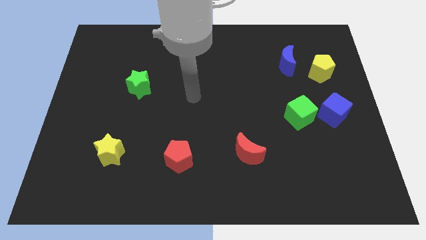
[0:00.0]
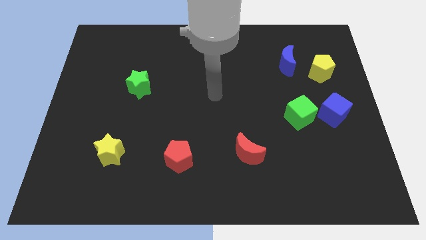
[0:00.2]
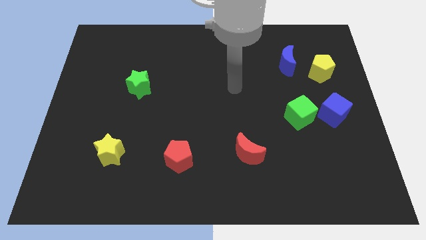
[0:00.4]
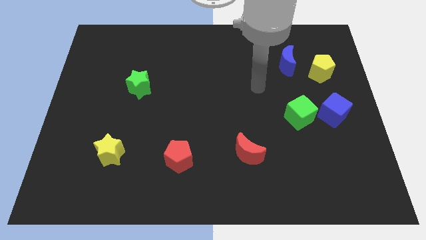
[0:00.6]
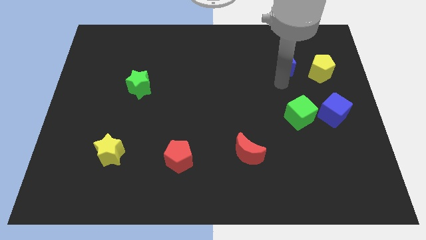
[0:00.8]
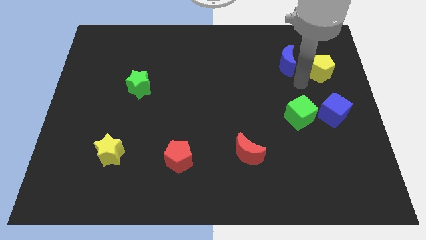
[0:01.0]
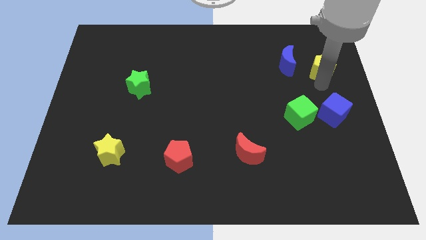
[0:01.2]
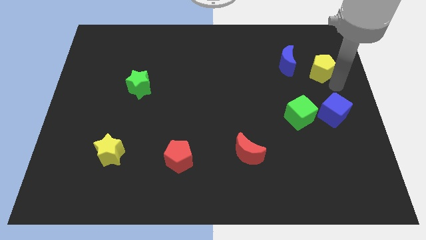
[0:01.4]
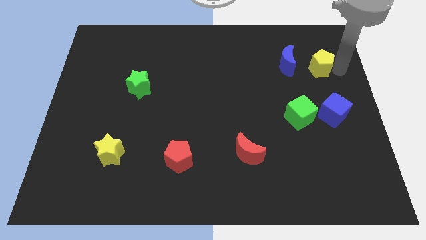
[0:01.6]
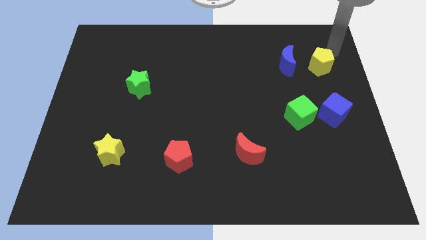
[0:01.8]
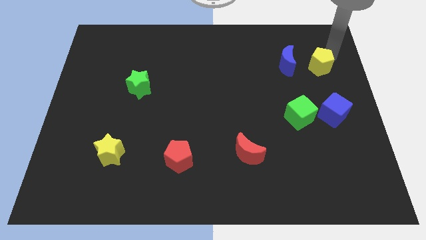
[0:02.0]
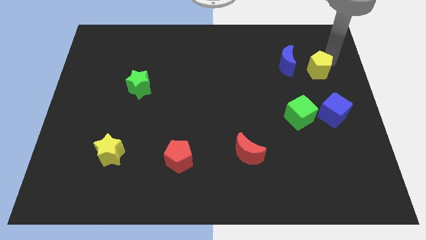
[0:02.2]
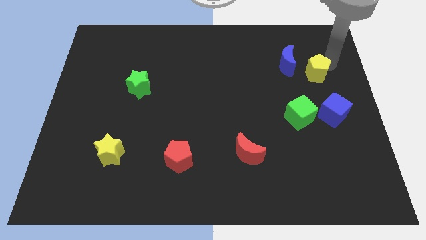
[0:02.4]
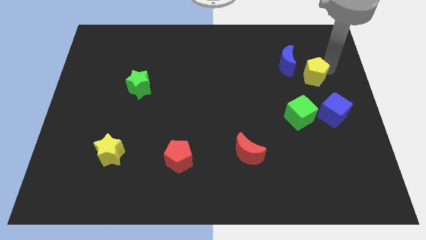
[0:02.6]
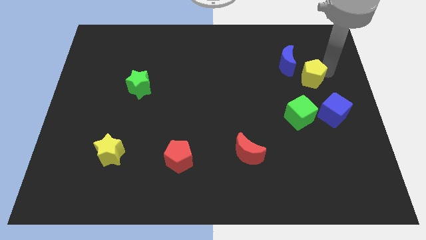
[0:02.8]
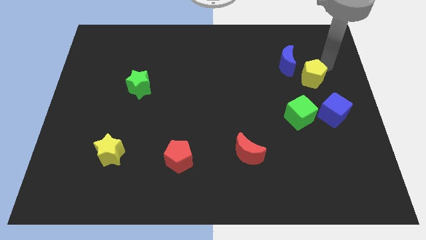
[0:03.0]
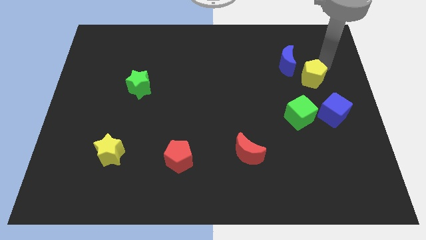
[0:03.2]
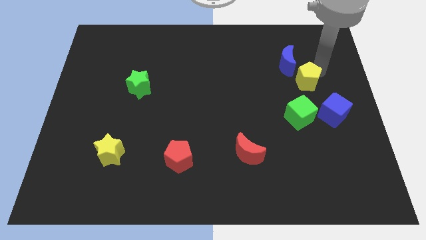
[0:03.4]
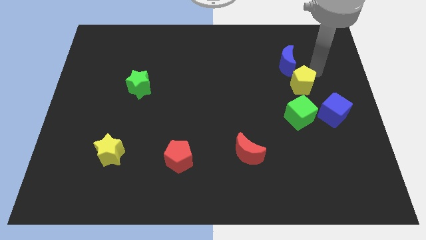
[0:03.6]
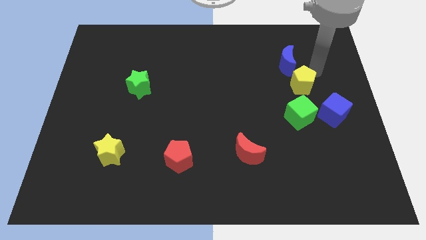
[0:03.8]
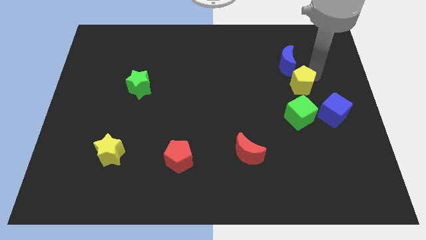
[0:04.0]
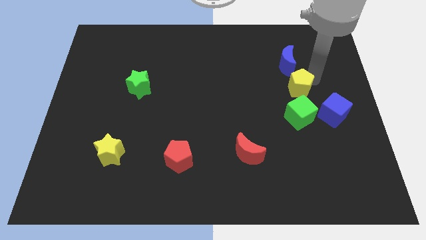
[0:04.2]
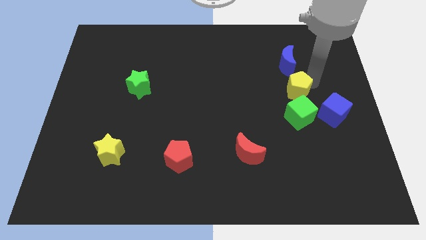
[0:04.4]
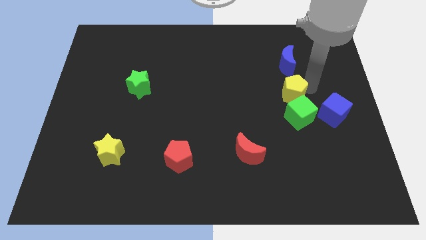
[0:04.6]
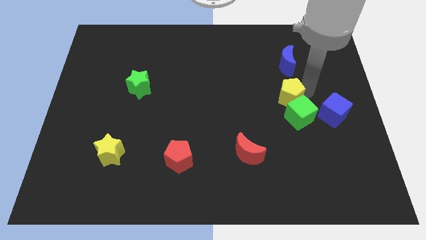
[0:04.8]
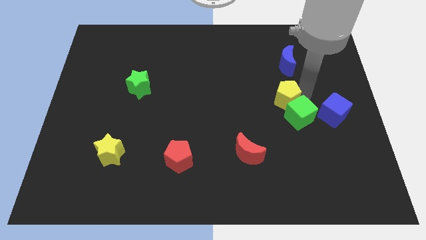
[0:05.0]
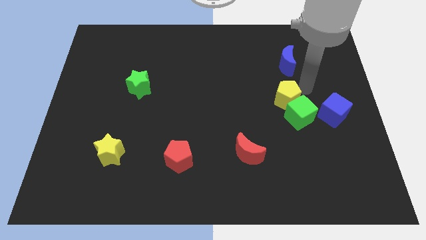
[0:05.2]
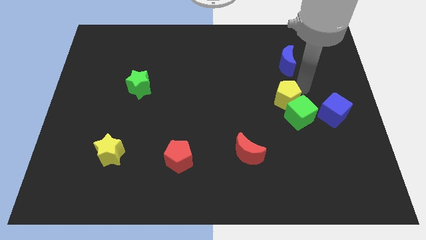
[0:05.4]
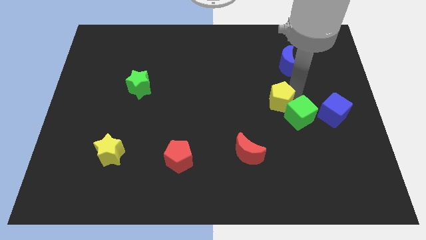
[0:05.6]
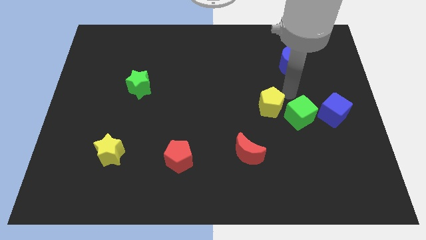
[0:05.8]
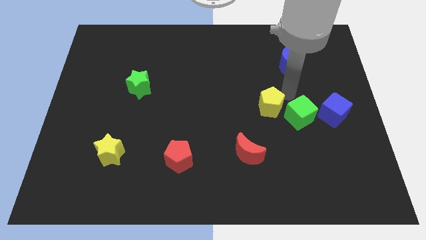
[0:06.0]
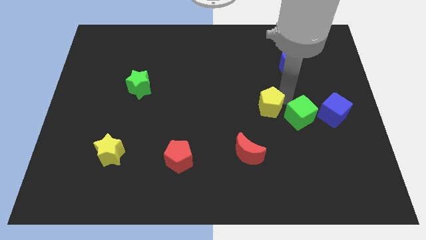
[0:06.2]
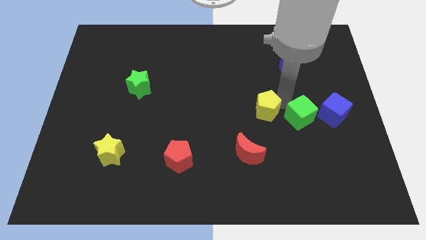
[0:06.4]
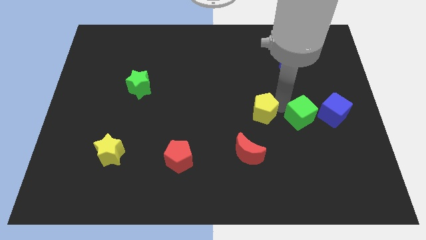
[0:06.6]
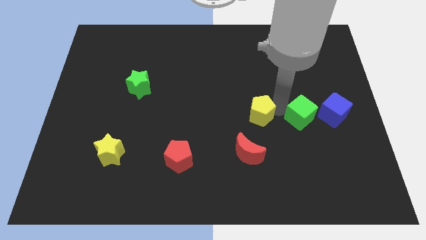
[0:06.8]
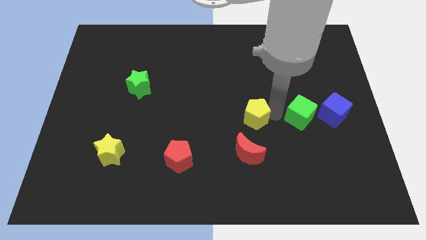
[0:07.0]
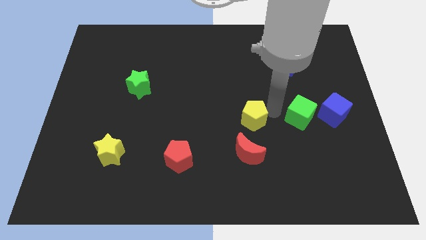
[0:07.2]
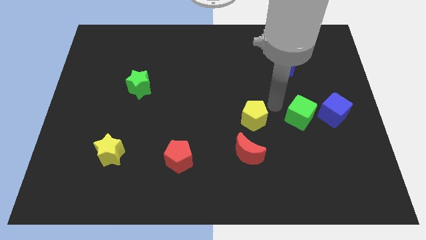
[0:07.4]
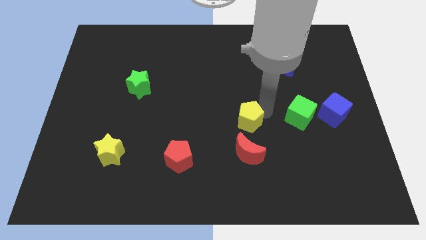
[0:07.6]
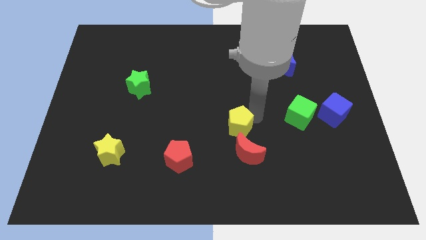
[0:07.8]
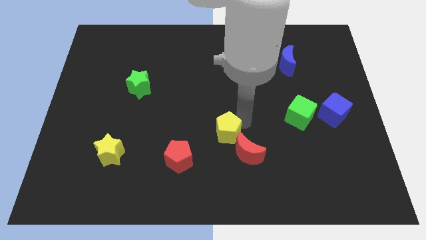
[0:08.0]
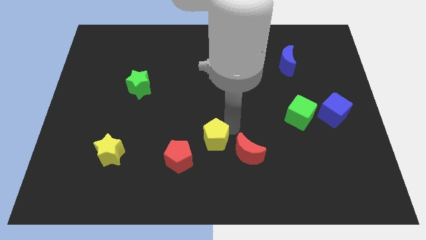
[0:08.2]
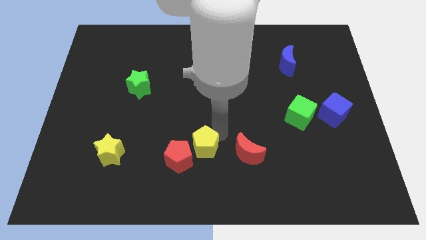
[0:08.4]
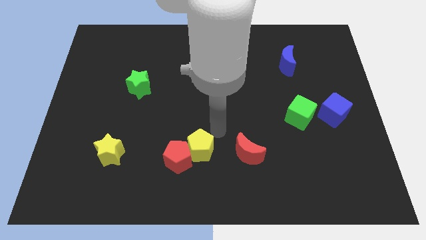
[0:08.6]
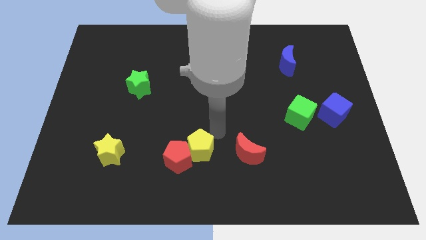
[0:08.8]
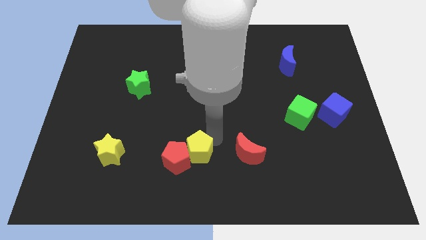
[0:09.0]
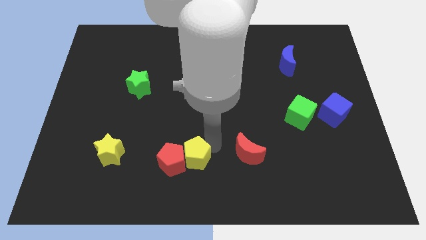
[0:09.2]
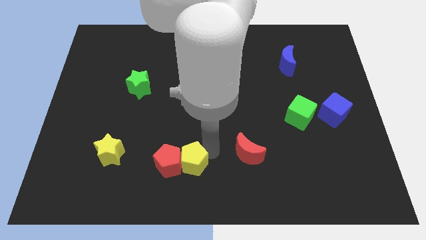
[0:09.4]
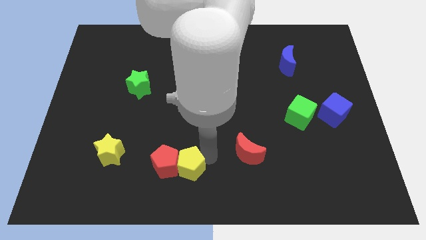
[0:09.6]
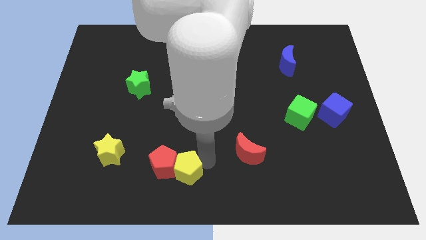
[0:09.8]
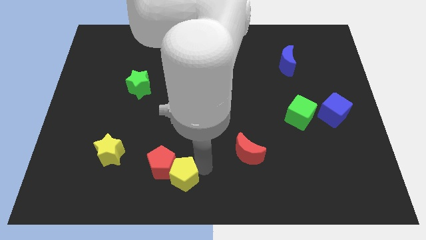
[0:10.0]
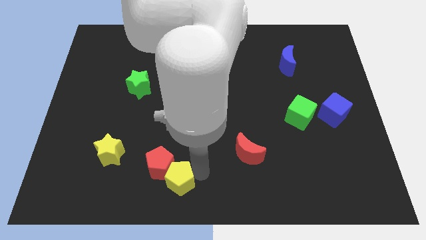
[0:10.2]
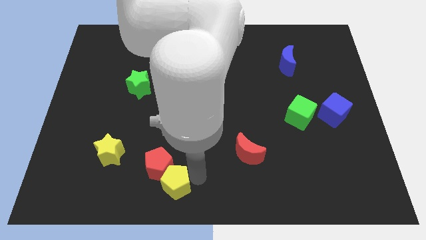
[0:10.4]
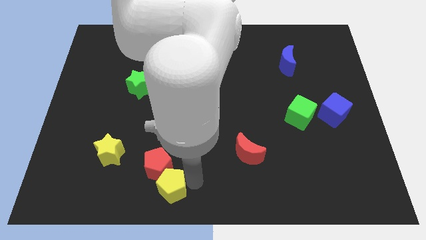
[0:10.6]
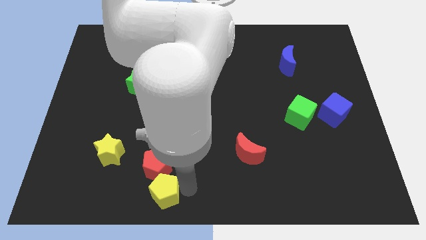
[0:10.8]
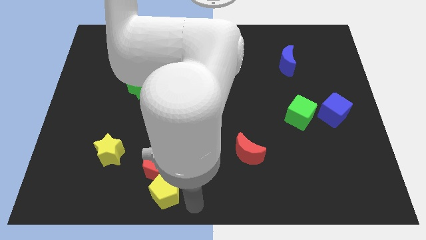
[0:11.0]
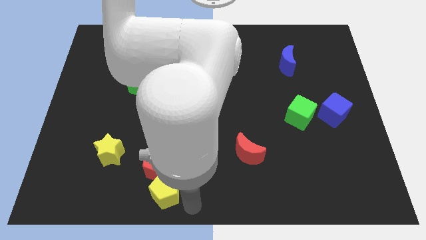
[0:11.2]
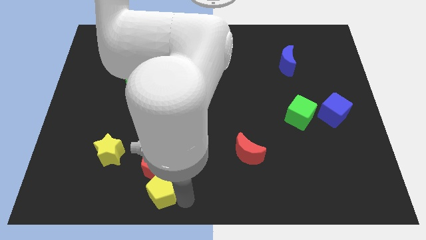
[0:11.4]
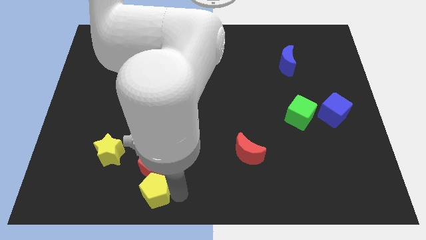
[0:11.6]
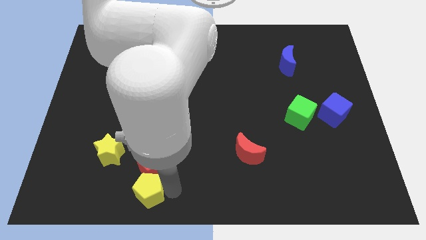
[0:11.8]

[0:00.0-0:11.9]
slide the yellow pentagon to the bottom right of the yellow star

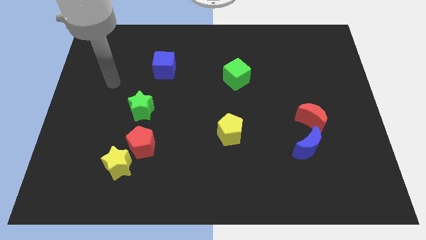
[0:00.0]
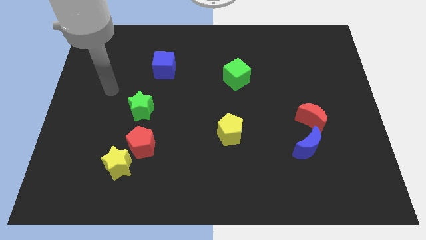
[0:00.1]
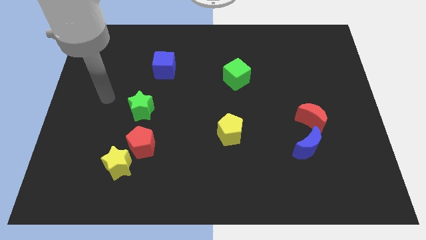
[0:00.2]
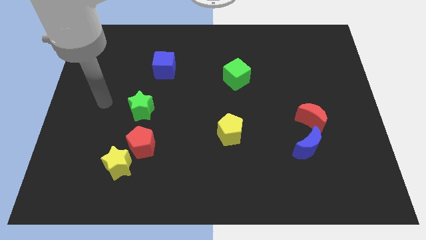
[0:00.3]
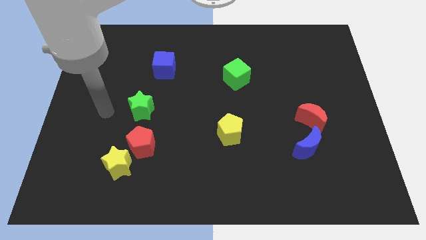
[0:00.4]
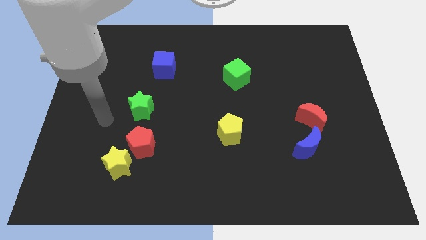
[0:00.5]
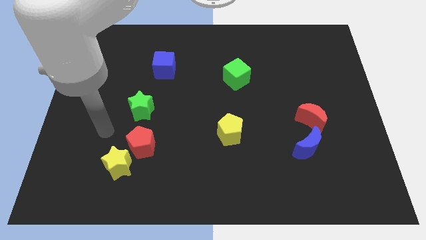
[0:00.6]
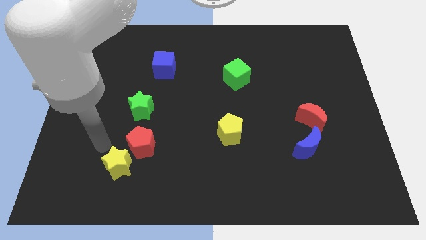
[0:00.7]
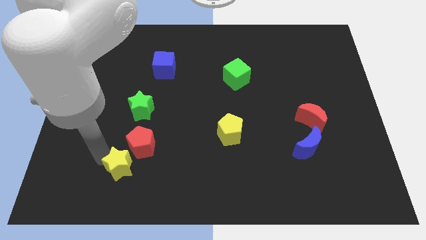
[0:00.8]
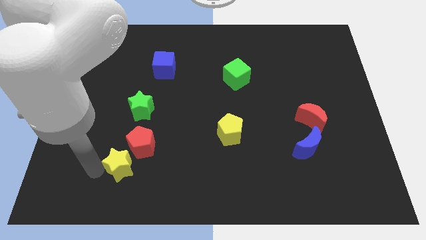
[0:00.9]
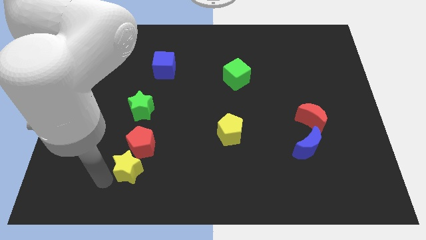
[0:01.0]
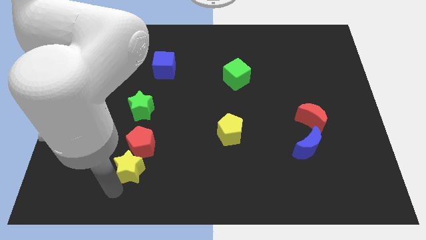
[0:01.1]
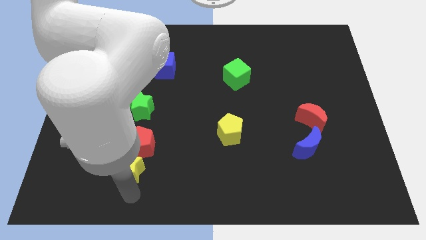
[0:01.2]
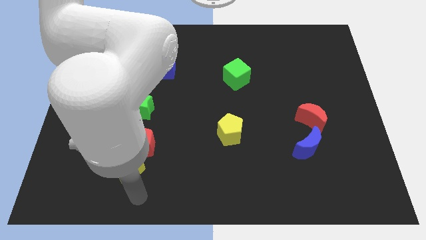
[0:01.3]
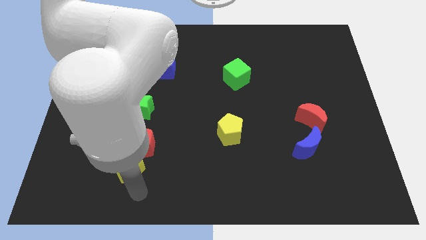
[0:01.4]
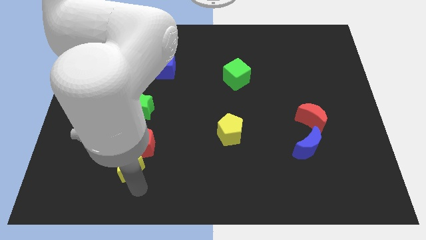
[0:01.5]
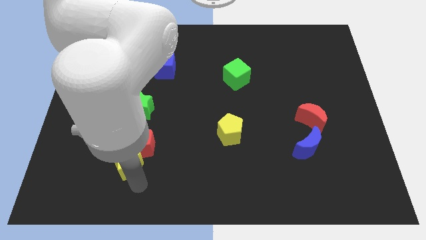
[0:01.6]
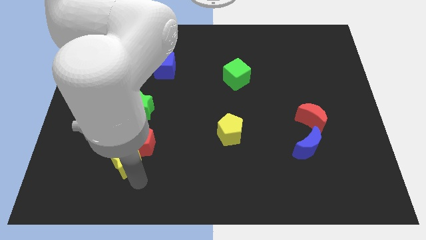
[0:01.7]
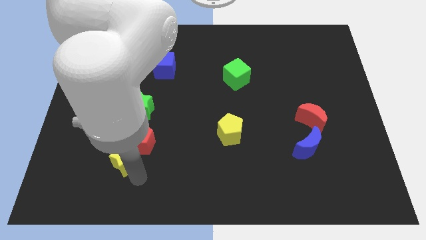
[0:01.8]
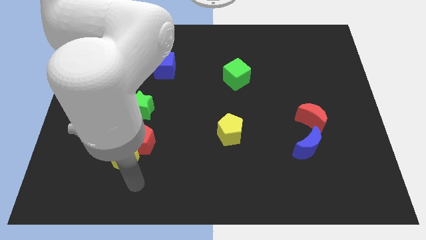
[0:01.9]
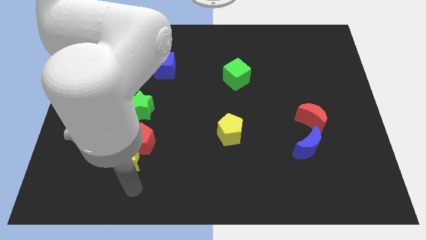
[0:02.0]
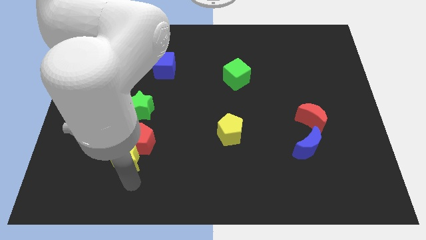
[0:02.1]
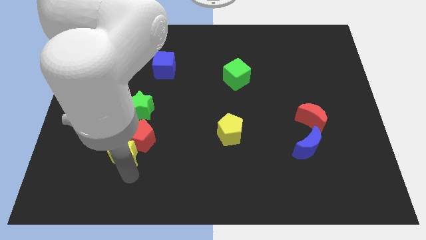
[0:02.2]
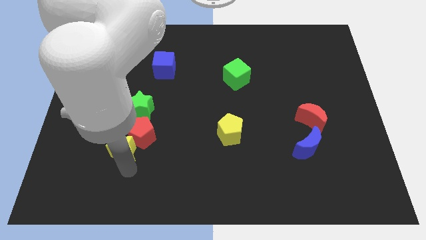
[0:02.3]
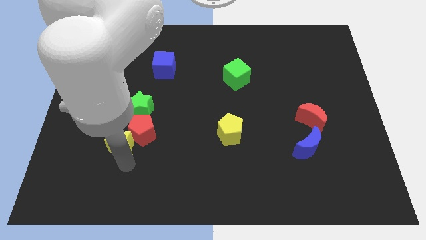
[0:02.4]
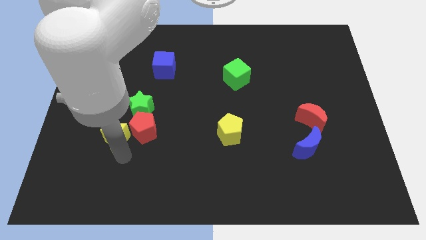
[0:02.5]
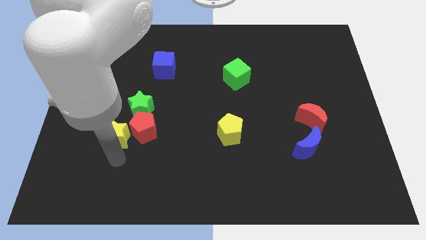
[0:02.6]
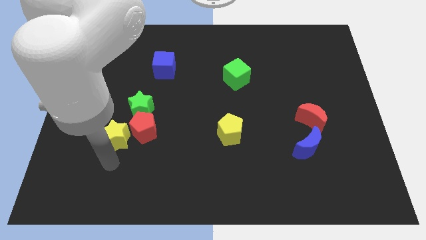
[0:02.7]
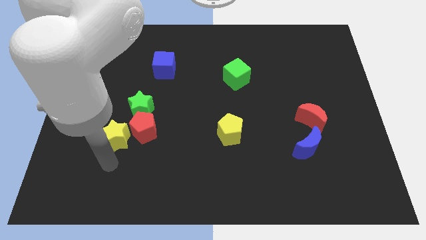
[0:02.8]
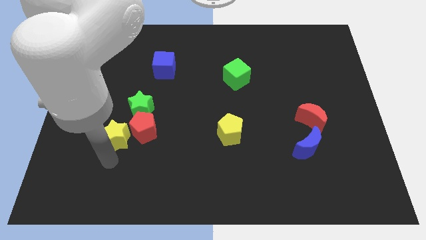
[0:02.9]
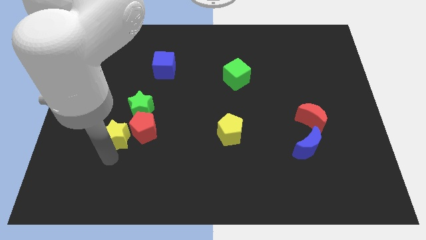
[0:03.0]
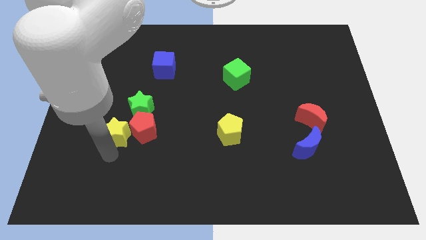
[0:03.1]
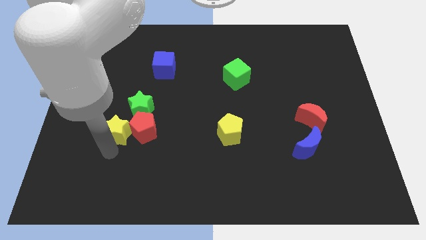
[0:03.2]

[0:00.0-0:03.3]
slide the yellow star to the top left of the red pentagon
